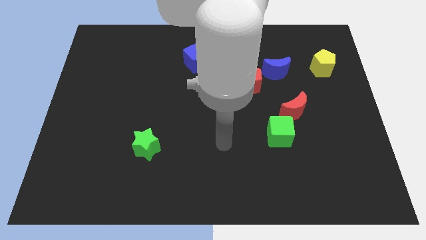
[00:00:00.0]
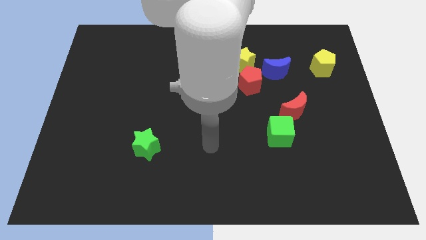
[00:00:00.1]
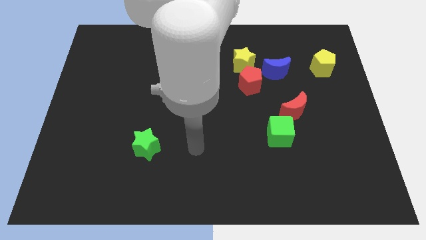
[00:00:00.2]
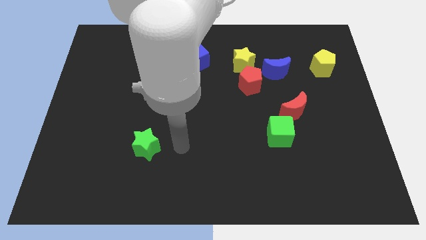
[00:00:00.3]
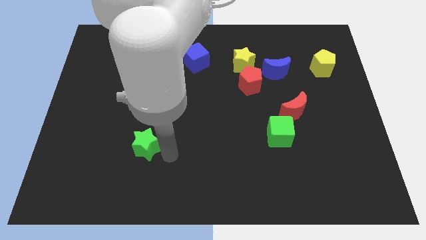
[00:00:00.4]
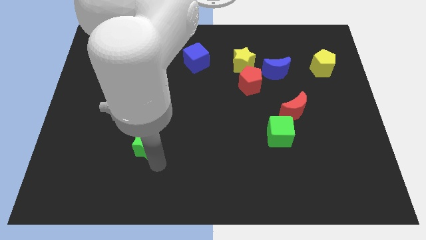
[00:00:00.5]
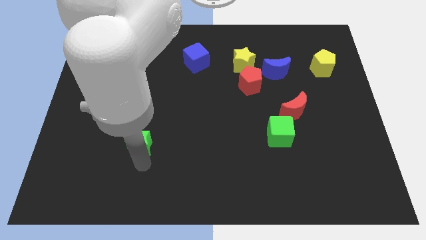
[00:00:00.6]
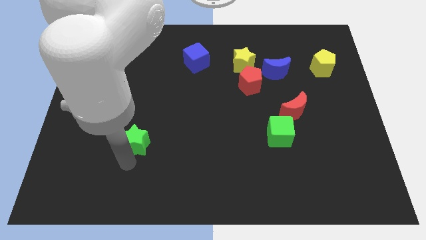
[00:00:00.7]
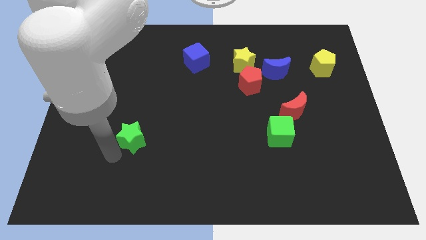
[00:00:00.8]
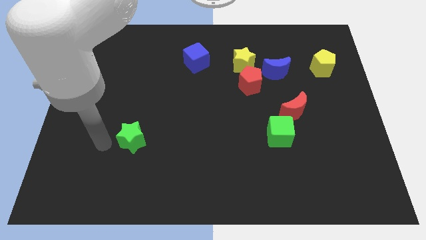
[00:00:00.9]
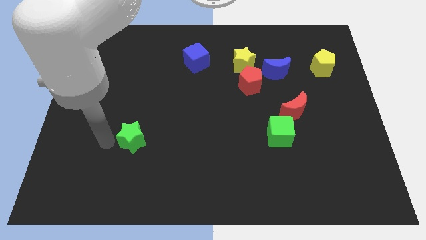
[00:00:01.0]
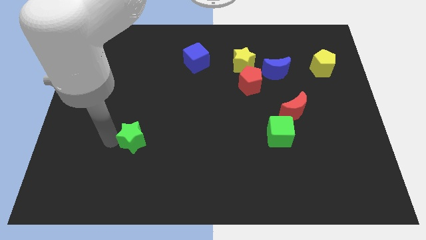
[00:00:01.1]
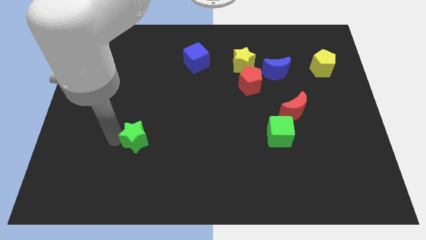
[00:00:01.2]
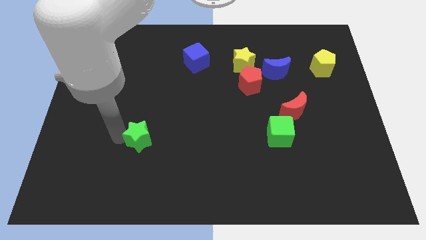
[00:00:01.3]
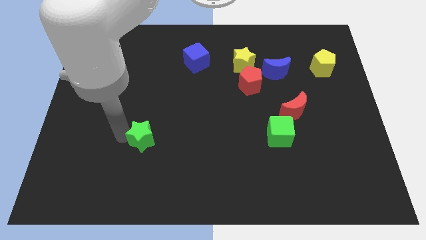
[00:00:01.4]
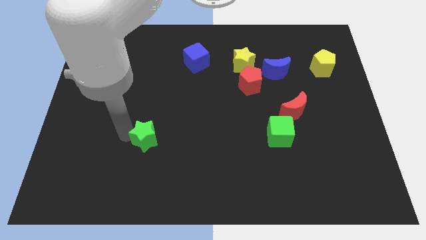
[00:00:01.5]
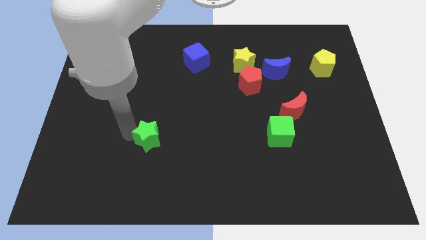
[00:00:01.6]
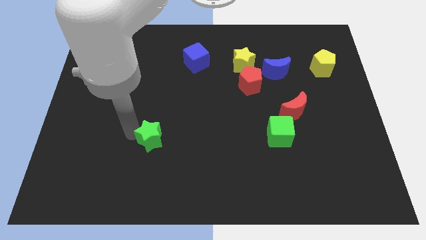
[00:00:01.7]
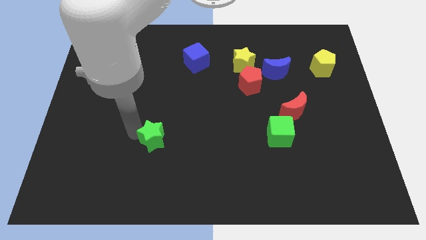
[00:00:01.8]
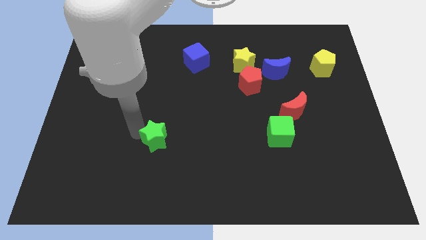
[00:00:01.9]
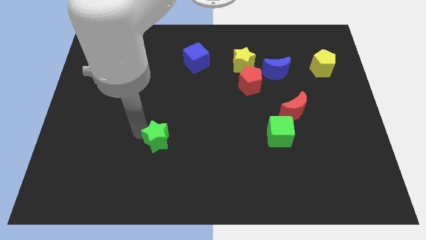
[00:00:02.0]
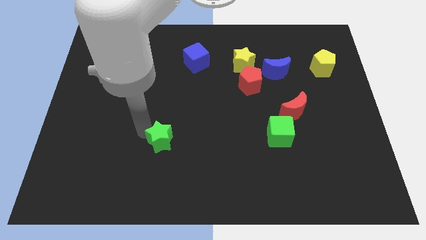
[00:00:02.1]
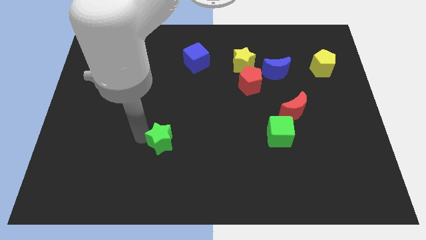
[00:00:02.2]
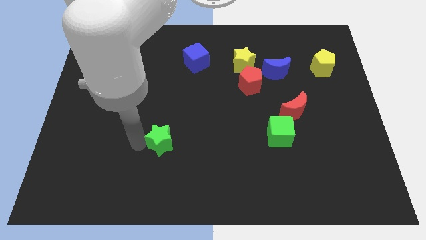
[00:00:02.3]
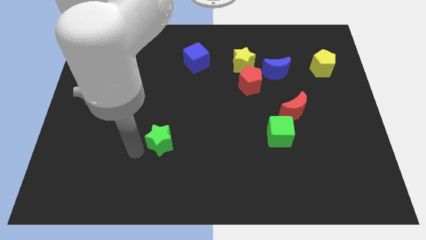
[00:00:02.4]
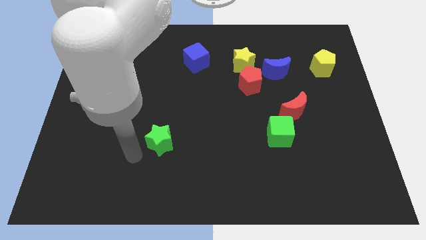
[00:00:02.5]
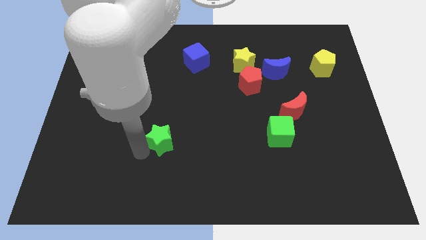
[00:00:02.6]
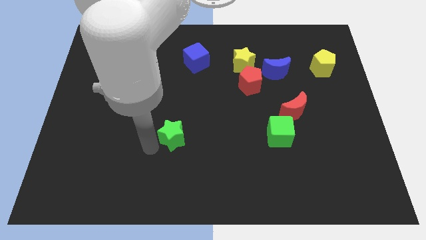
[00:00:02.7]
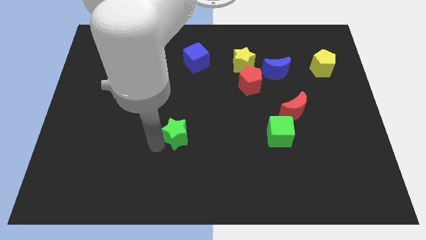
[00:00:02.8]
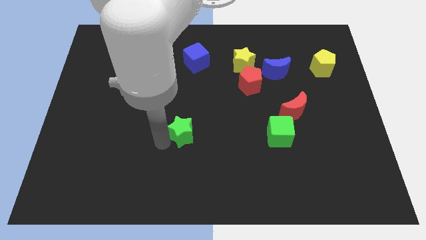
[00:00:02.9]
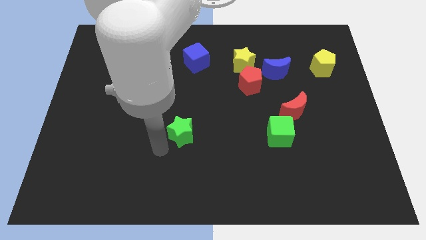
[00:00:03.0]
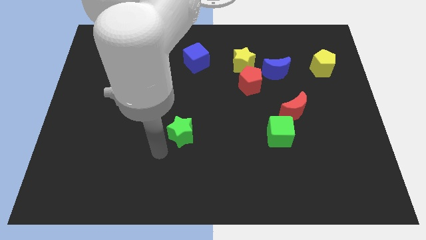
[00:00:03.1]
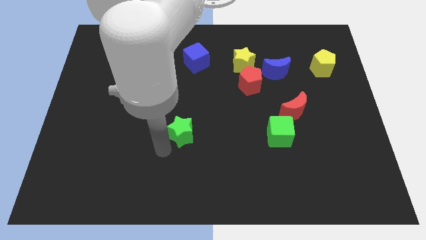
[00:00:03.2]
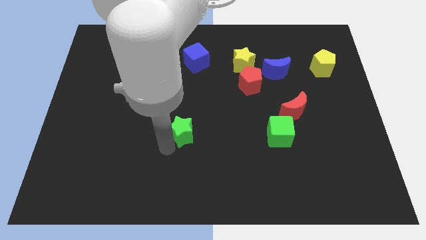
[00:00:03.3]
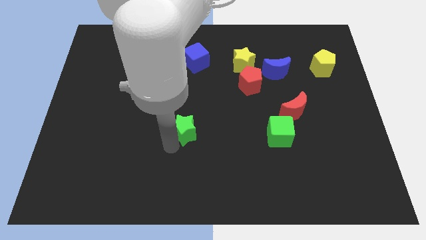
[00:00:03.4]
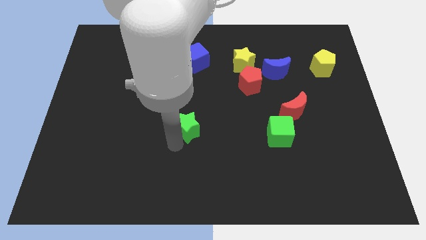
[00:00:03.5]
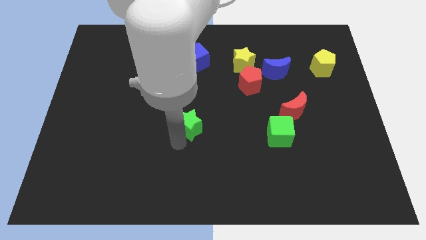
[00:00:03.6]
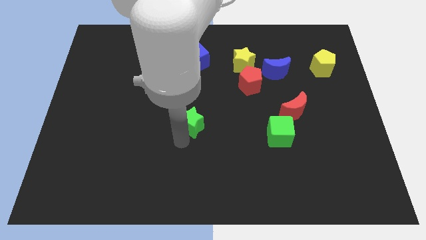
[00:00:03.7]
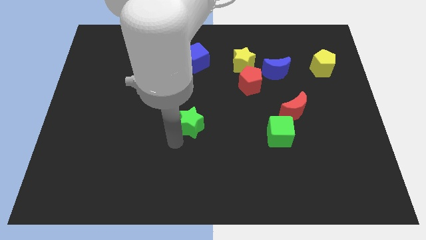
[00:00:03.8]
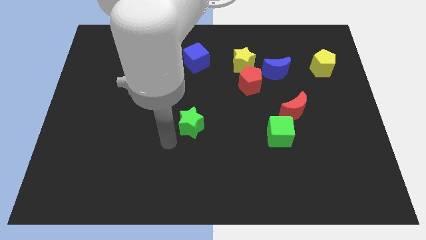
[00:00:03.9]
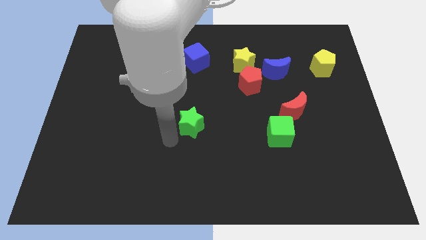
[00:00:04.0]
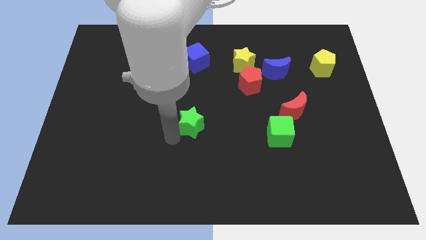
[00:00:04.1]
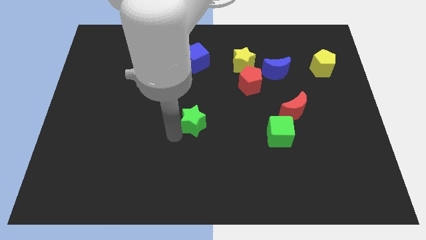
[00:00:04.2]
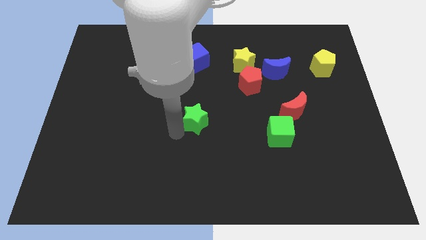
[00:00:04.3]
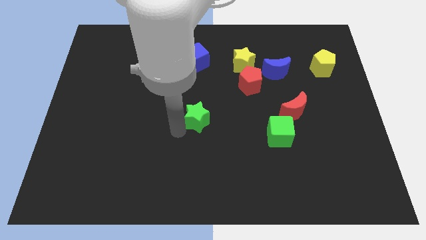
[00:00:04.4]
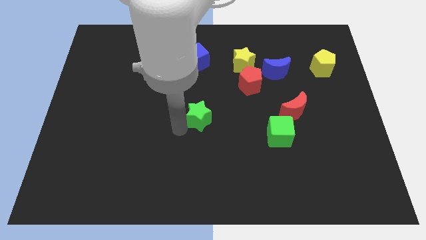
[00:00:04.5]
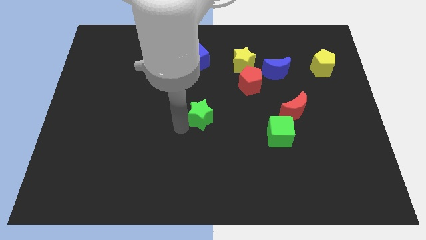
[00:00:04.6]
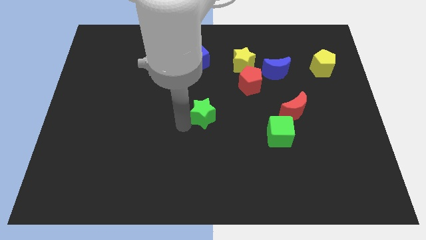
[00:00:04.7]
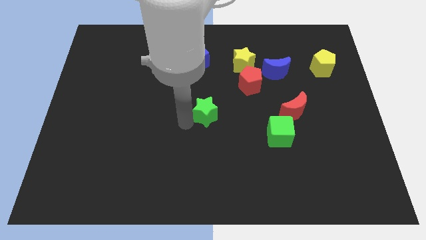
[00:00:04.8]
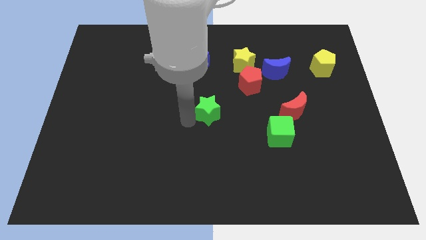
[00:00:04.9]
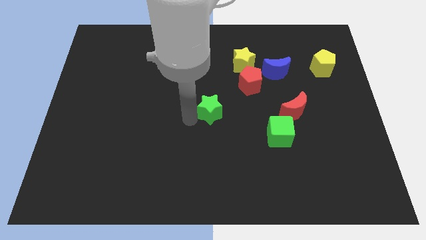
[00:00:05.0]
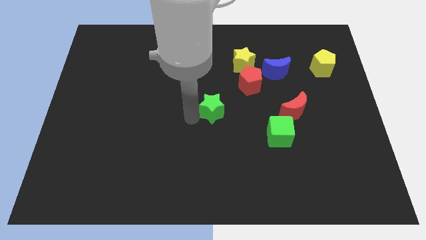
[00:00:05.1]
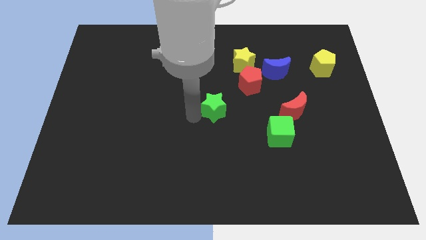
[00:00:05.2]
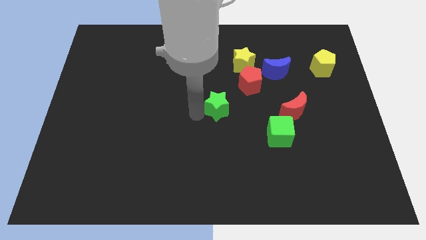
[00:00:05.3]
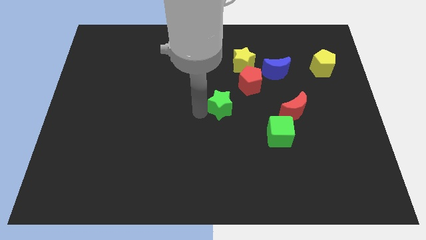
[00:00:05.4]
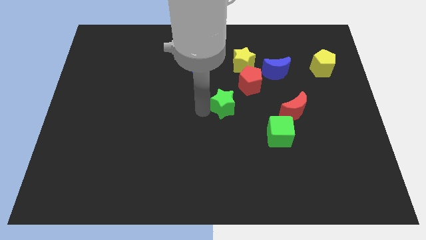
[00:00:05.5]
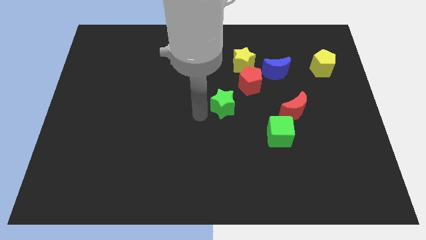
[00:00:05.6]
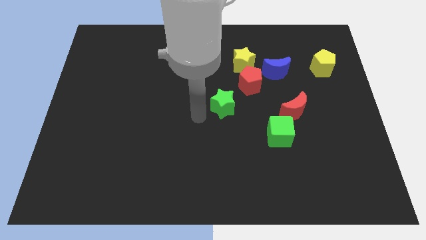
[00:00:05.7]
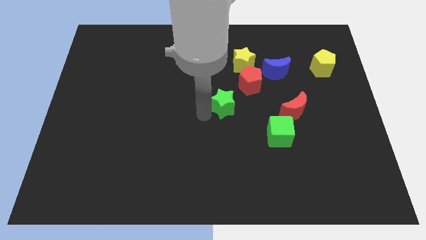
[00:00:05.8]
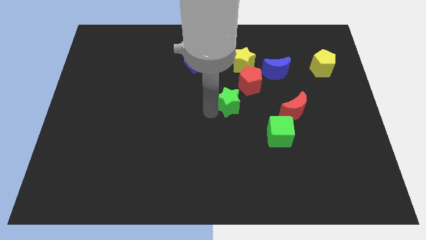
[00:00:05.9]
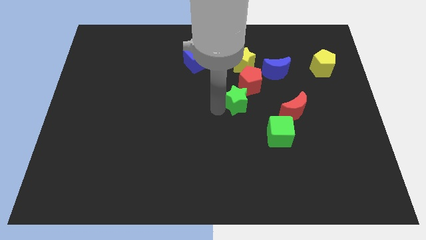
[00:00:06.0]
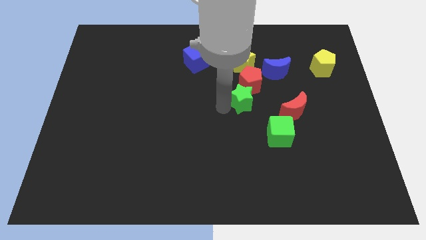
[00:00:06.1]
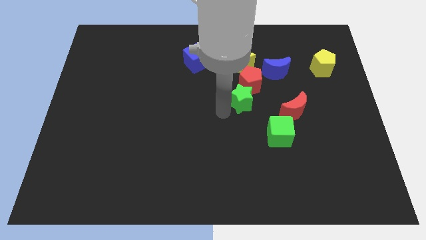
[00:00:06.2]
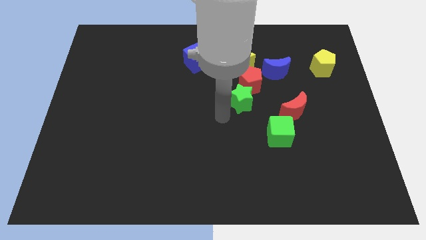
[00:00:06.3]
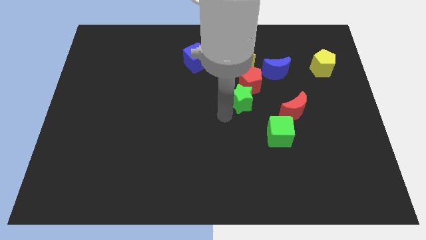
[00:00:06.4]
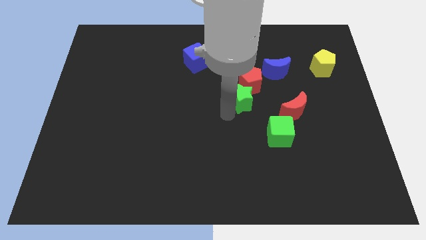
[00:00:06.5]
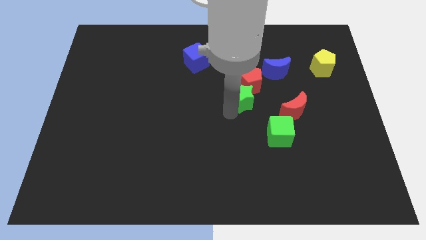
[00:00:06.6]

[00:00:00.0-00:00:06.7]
move the green star to the bottom left of the blue moon
